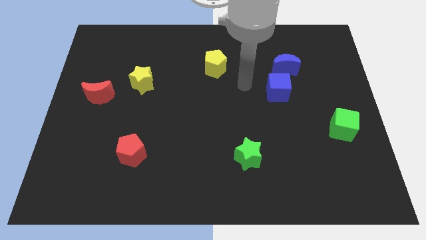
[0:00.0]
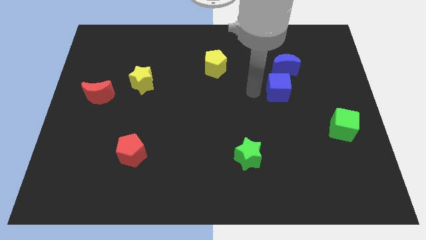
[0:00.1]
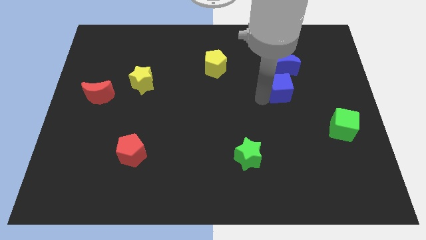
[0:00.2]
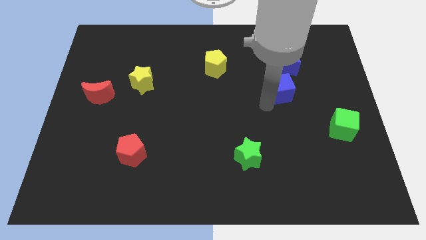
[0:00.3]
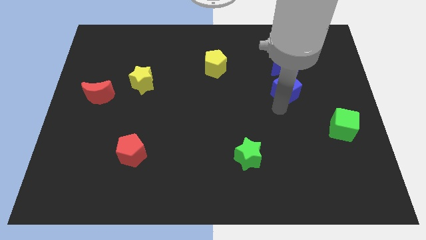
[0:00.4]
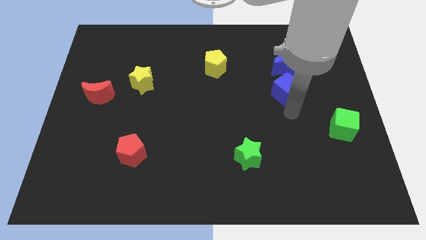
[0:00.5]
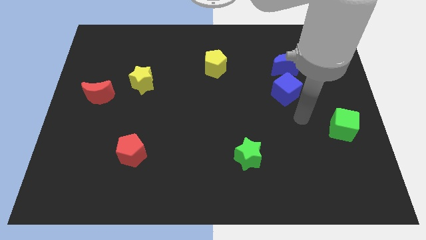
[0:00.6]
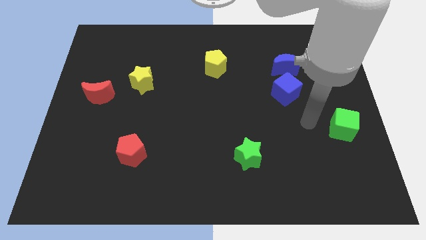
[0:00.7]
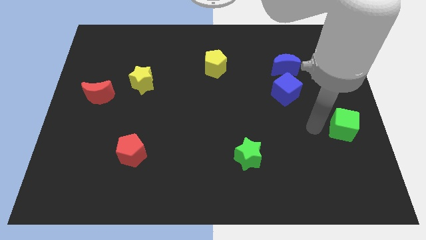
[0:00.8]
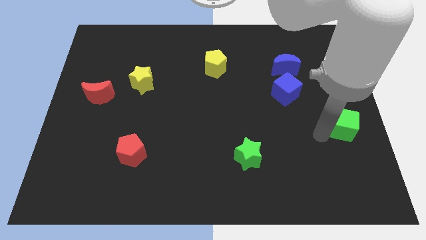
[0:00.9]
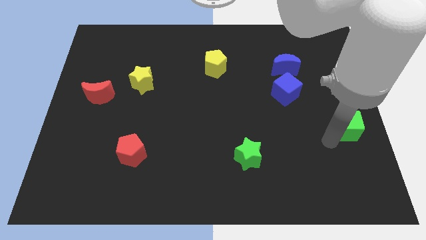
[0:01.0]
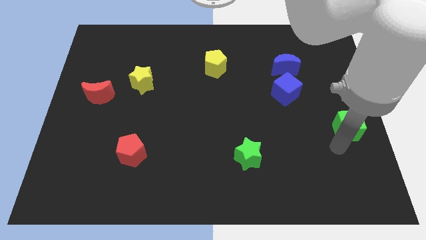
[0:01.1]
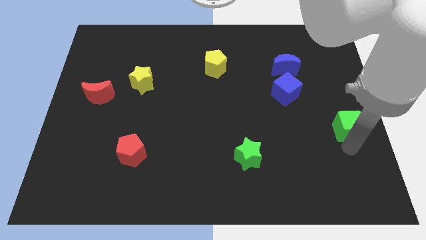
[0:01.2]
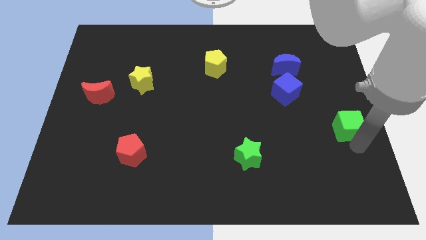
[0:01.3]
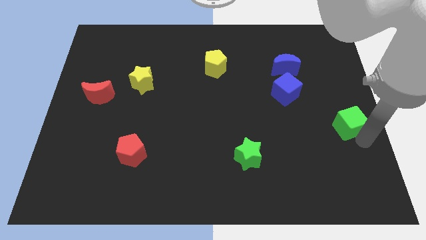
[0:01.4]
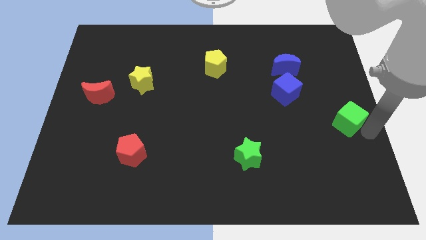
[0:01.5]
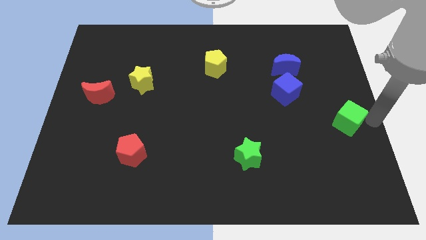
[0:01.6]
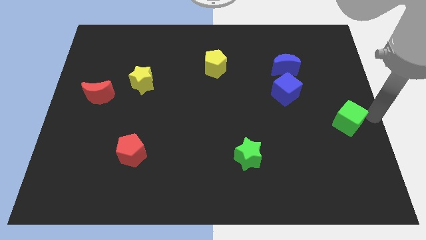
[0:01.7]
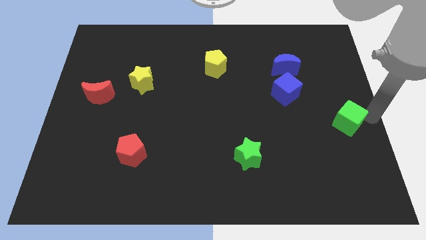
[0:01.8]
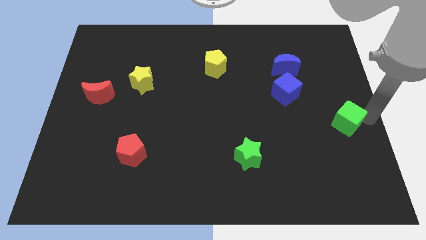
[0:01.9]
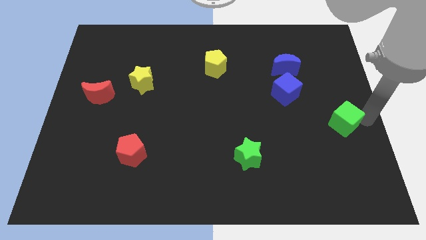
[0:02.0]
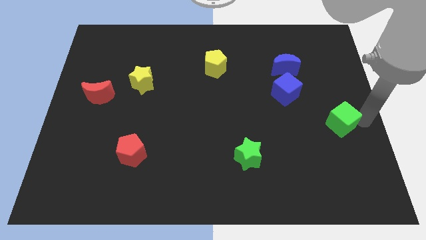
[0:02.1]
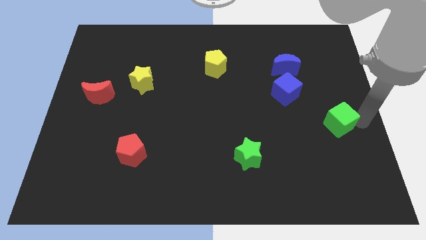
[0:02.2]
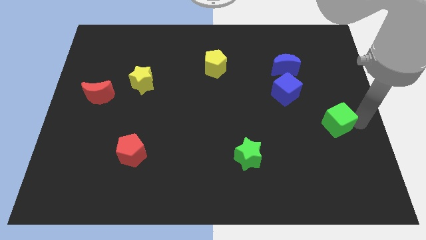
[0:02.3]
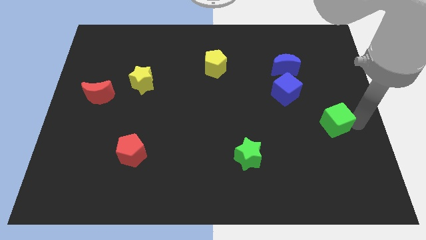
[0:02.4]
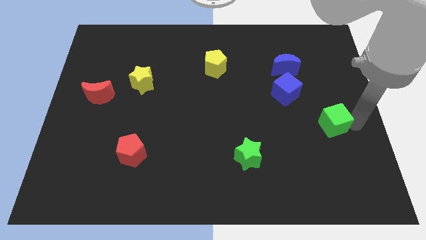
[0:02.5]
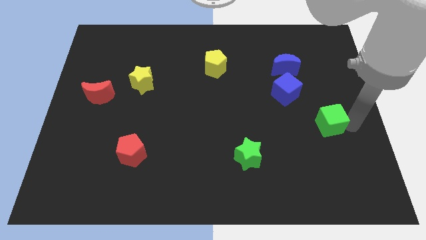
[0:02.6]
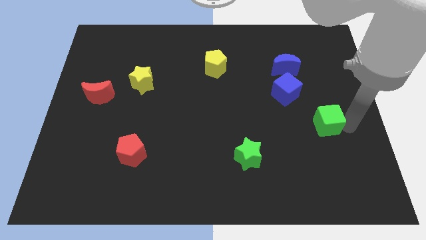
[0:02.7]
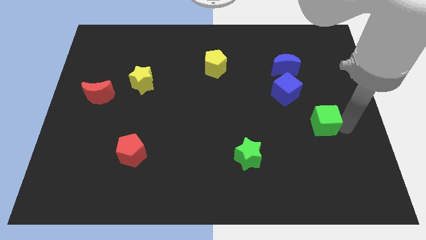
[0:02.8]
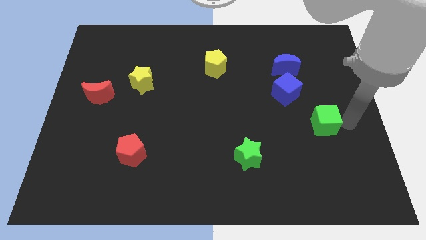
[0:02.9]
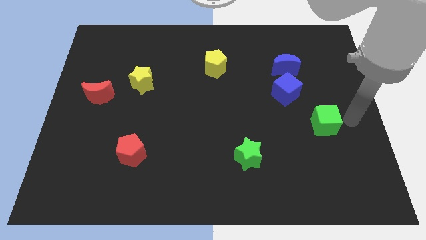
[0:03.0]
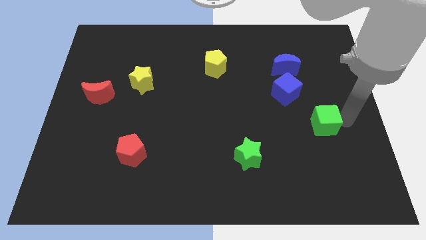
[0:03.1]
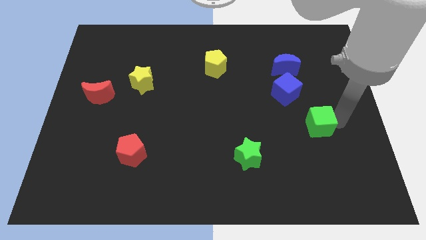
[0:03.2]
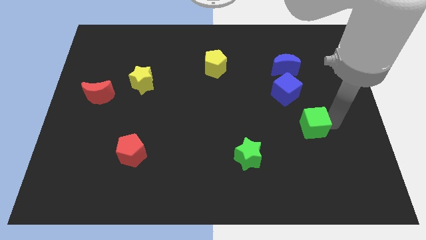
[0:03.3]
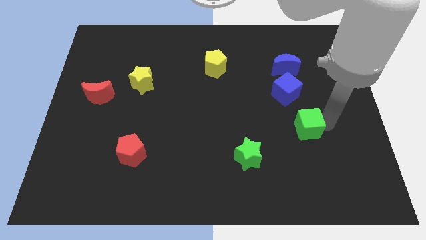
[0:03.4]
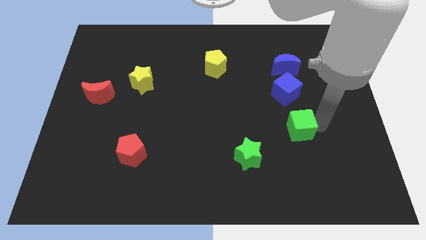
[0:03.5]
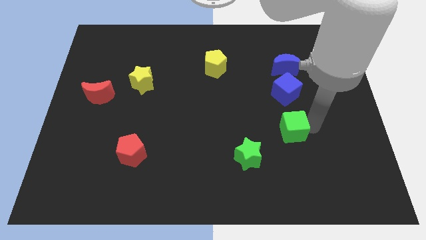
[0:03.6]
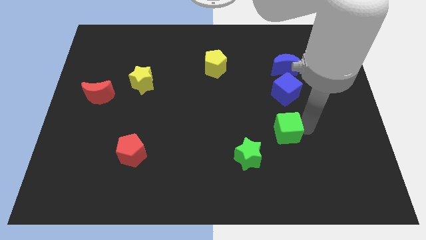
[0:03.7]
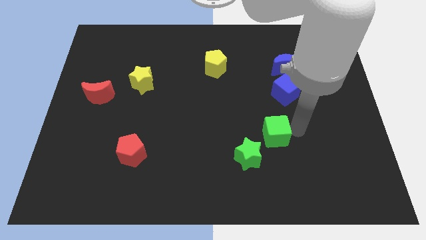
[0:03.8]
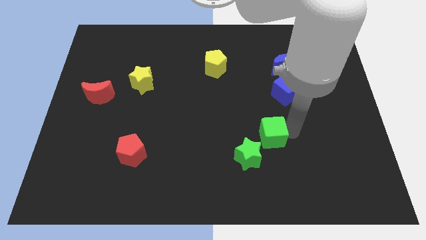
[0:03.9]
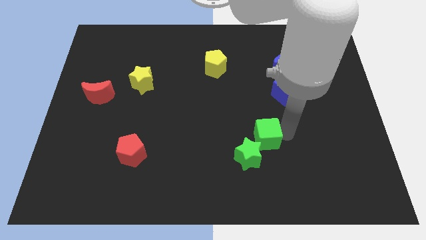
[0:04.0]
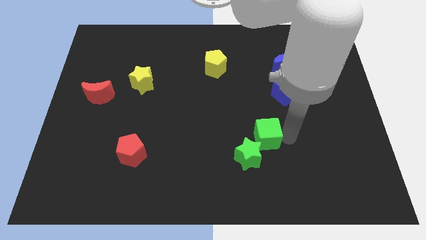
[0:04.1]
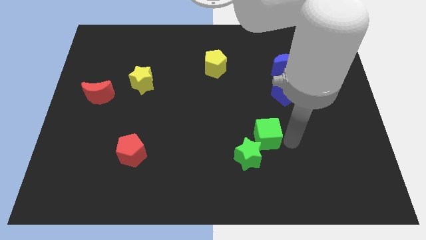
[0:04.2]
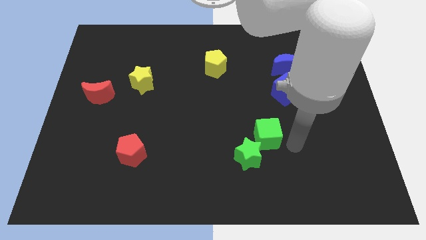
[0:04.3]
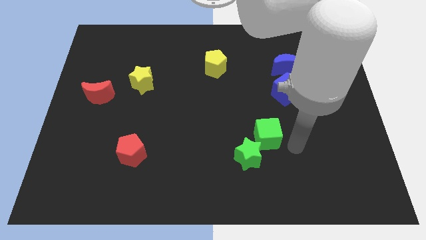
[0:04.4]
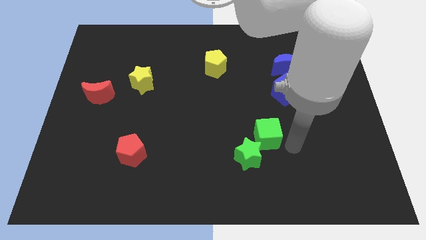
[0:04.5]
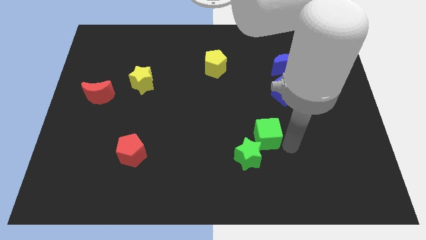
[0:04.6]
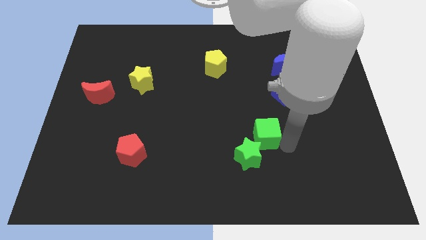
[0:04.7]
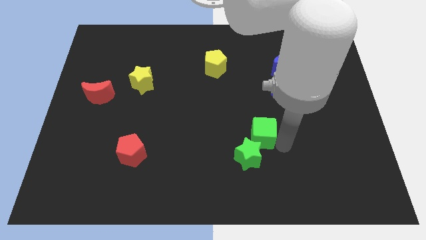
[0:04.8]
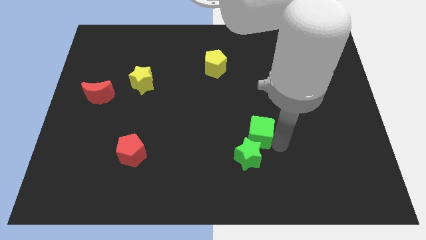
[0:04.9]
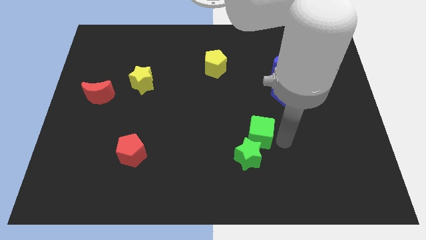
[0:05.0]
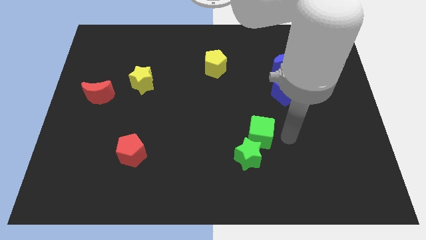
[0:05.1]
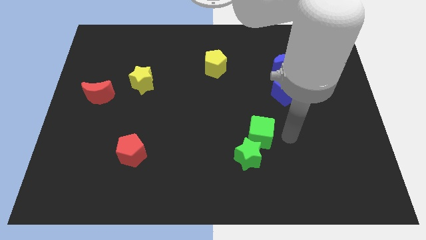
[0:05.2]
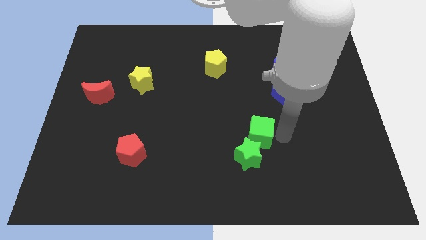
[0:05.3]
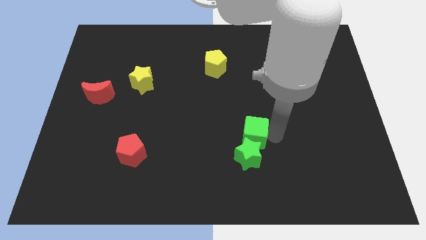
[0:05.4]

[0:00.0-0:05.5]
push the green cube left

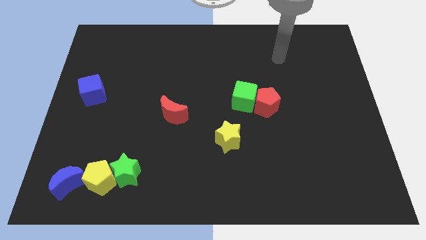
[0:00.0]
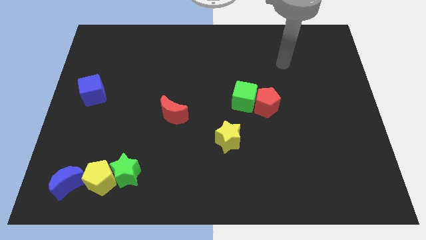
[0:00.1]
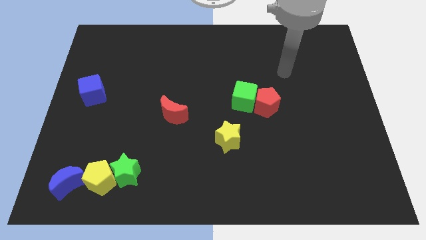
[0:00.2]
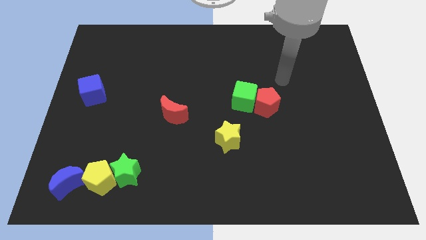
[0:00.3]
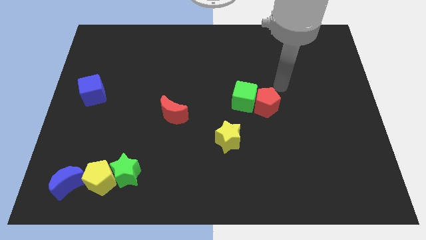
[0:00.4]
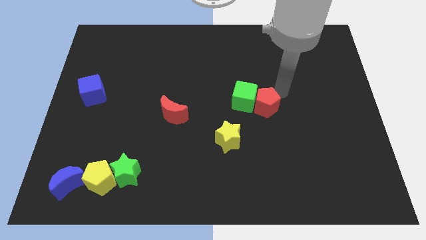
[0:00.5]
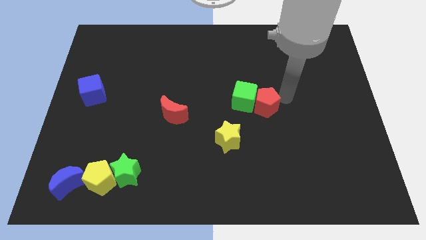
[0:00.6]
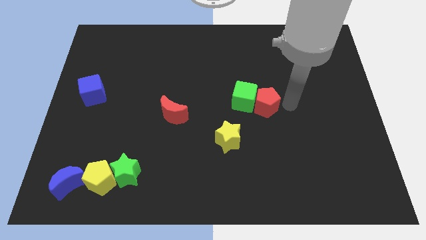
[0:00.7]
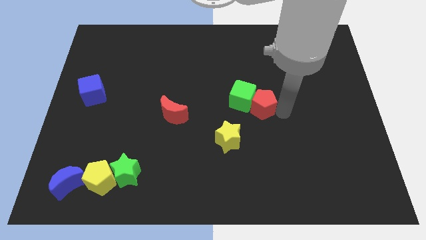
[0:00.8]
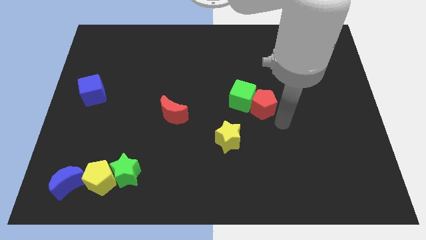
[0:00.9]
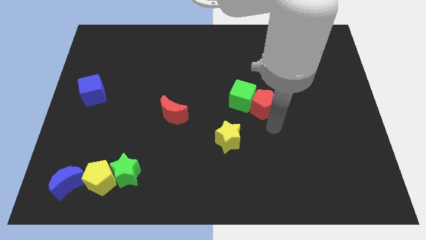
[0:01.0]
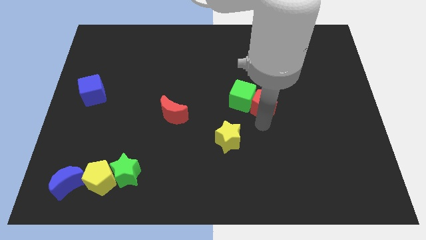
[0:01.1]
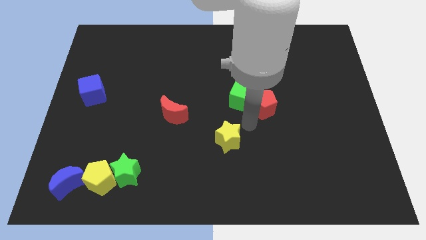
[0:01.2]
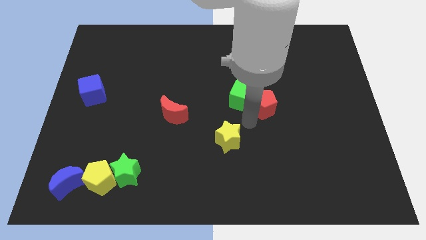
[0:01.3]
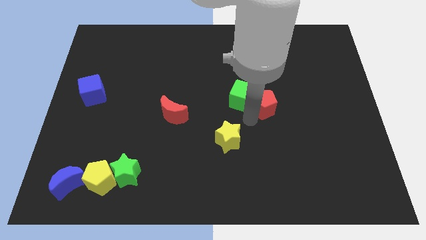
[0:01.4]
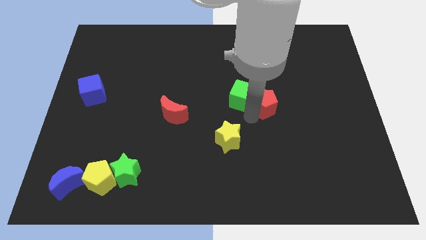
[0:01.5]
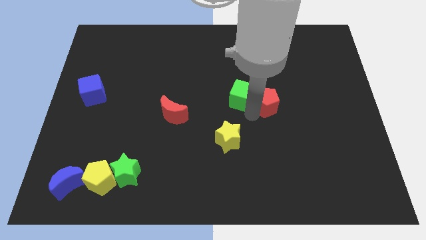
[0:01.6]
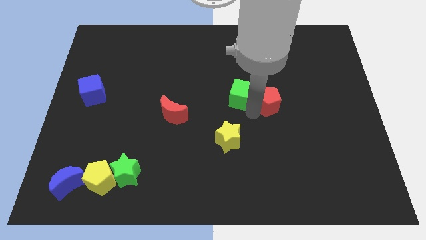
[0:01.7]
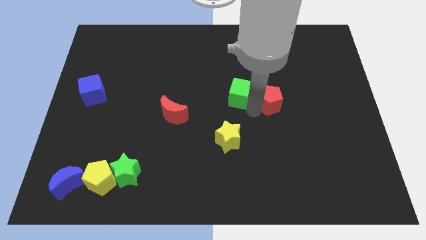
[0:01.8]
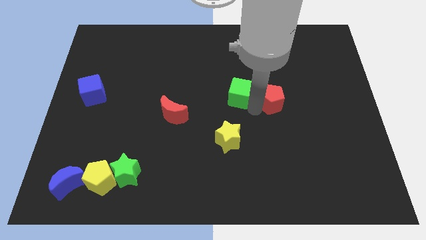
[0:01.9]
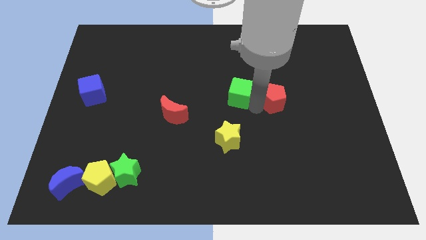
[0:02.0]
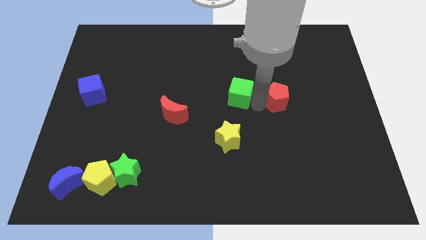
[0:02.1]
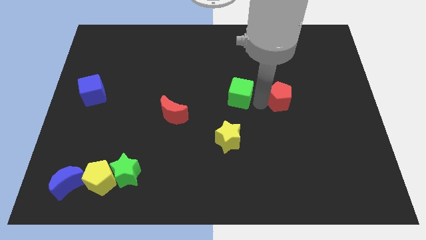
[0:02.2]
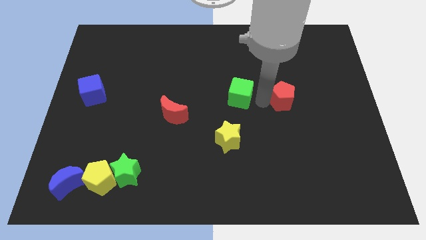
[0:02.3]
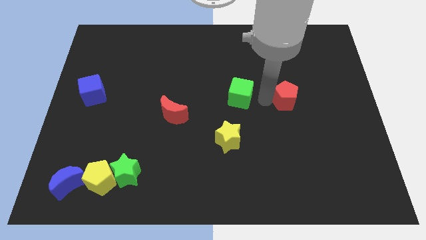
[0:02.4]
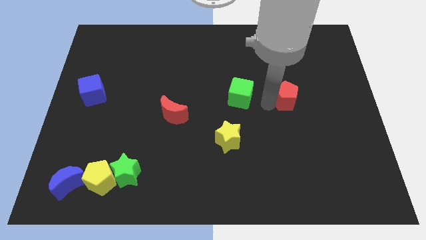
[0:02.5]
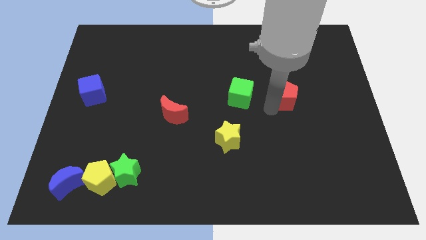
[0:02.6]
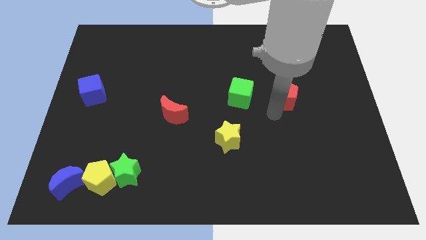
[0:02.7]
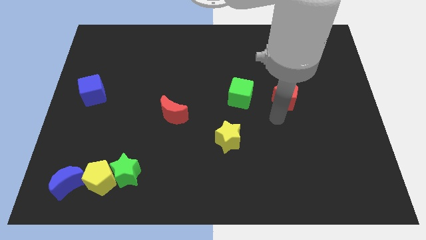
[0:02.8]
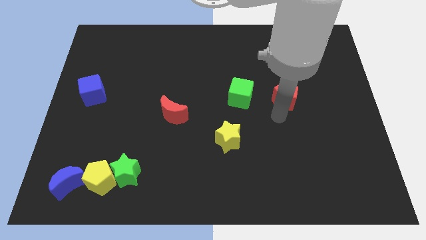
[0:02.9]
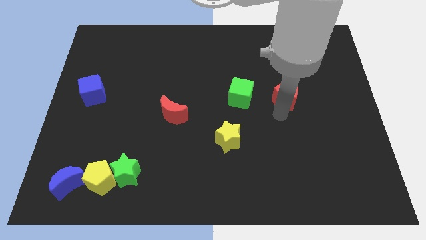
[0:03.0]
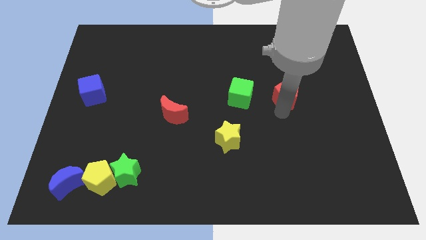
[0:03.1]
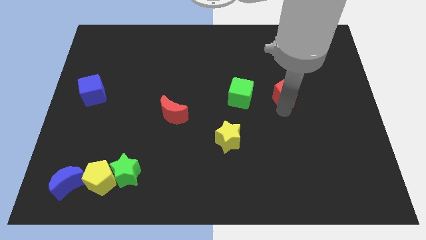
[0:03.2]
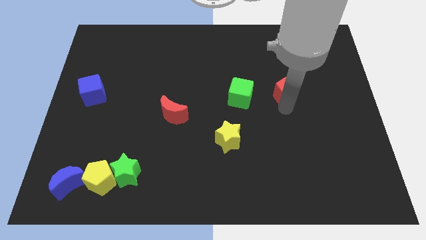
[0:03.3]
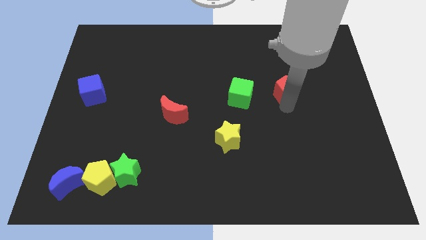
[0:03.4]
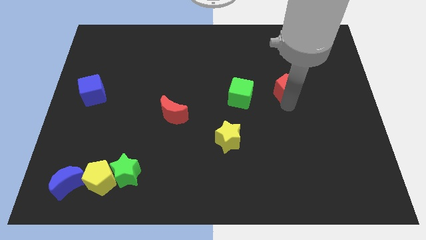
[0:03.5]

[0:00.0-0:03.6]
push the red pentagon diagonally up and right a little
